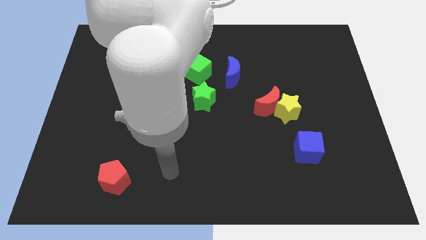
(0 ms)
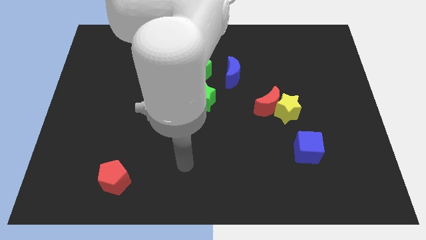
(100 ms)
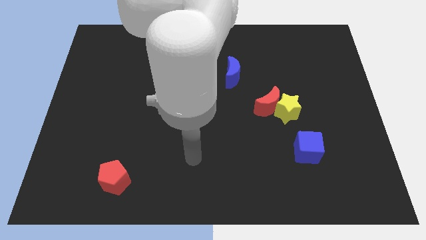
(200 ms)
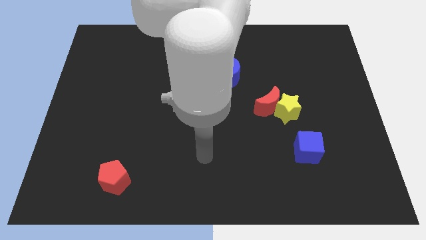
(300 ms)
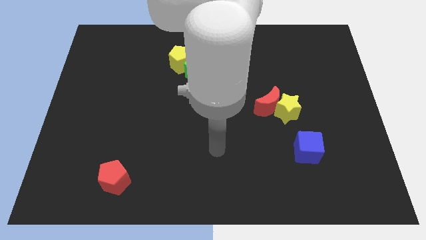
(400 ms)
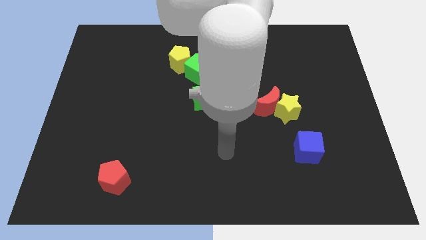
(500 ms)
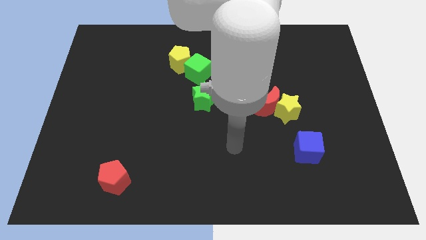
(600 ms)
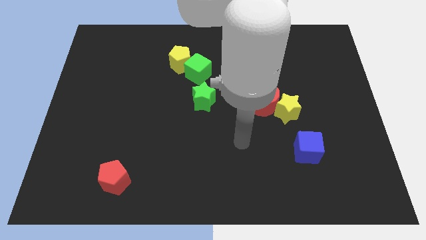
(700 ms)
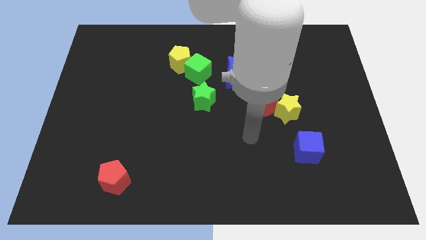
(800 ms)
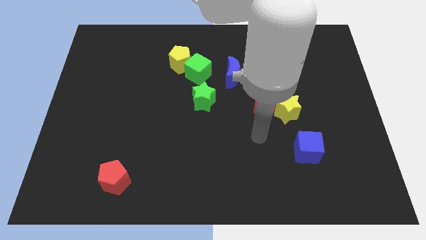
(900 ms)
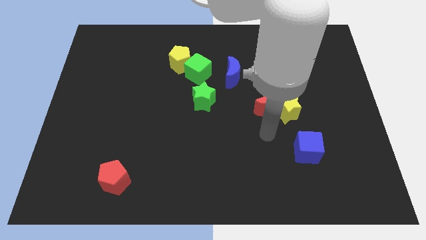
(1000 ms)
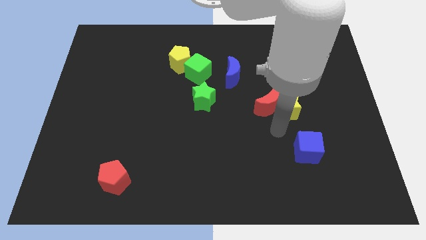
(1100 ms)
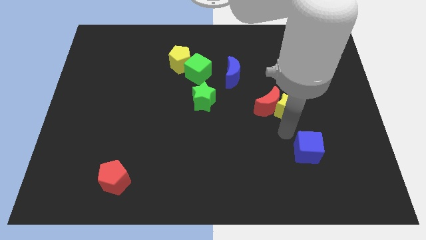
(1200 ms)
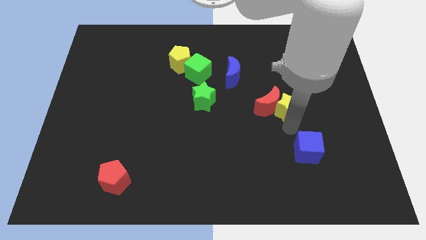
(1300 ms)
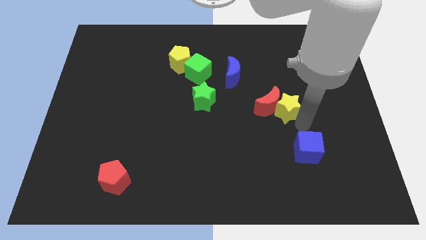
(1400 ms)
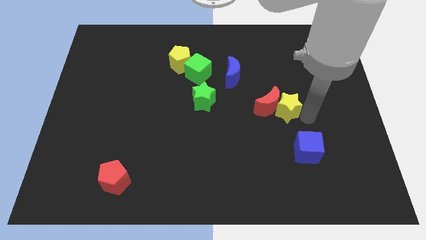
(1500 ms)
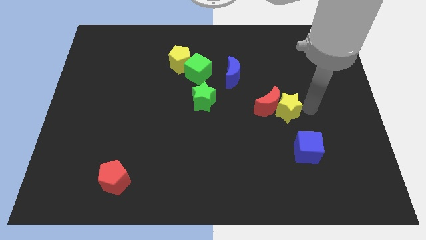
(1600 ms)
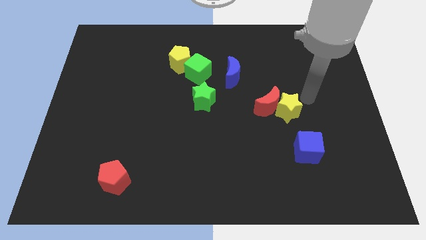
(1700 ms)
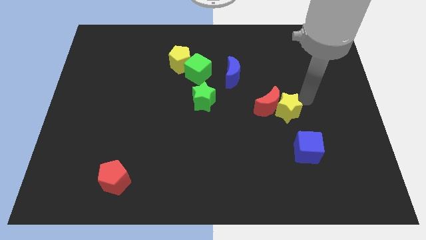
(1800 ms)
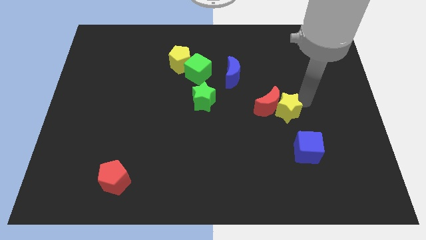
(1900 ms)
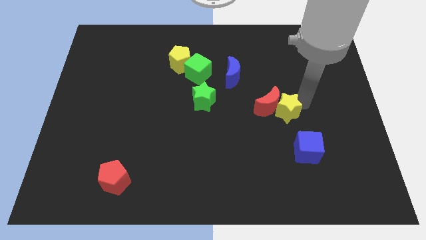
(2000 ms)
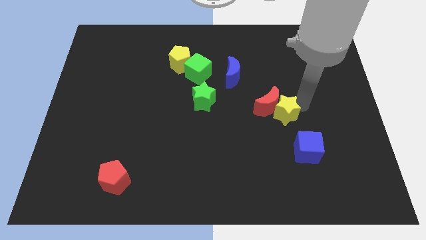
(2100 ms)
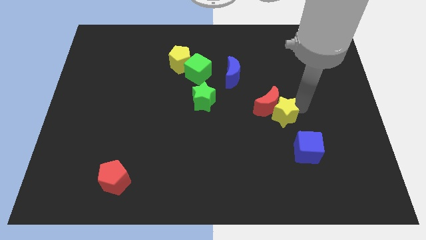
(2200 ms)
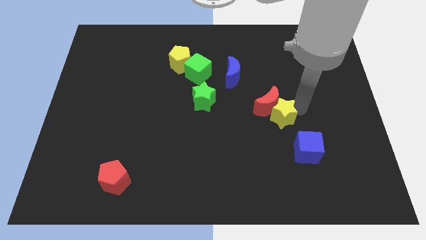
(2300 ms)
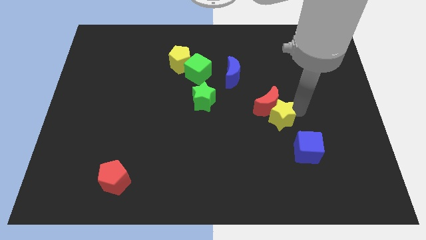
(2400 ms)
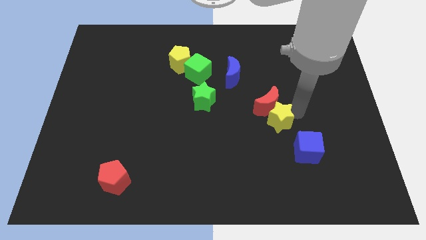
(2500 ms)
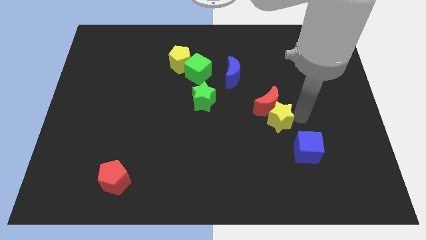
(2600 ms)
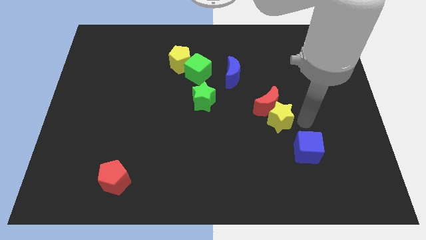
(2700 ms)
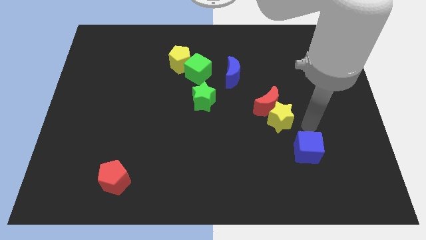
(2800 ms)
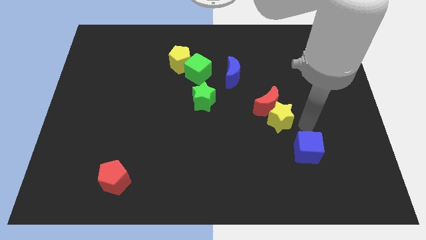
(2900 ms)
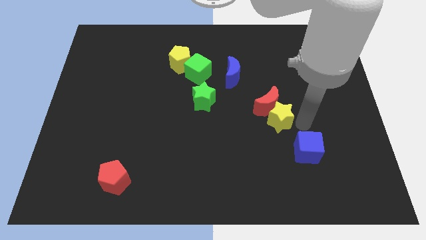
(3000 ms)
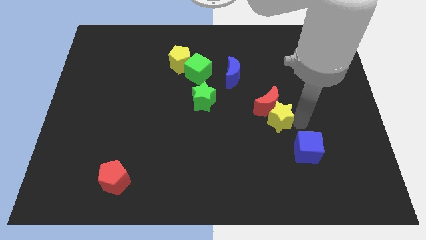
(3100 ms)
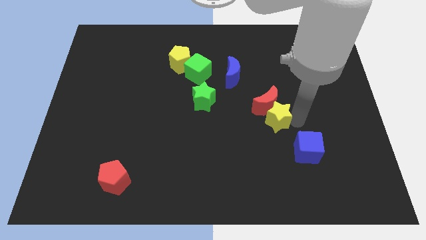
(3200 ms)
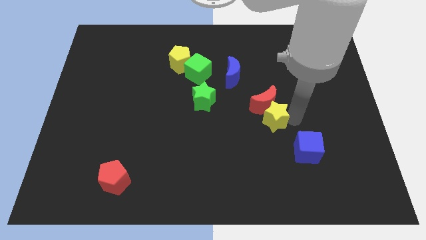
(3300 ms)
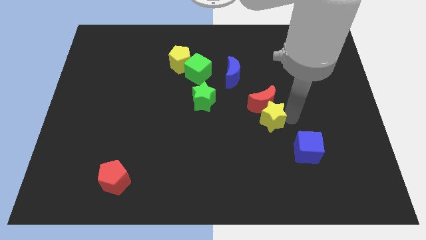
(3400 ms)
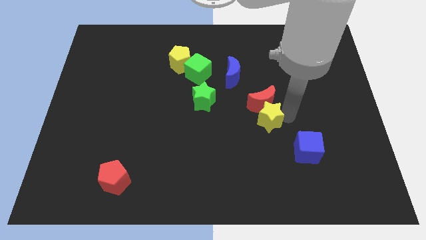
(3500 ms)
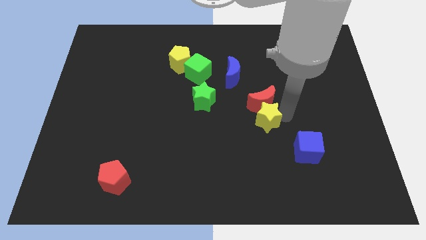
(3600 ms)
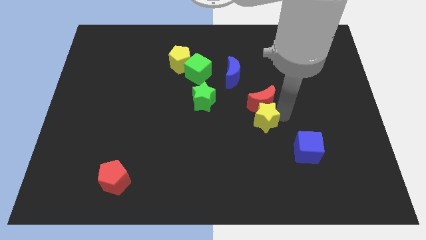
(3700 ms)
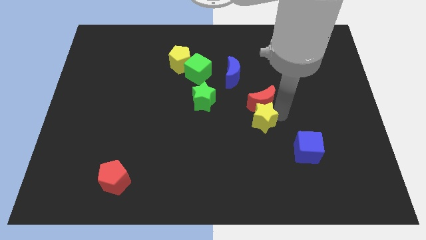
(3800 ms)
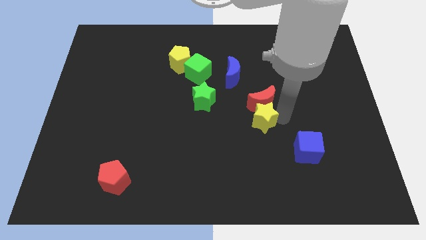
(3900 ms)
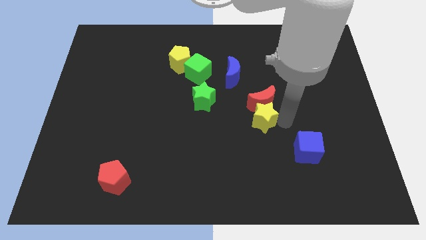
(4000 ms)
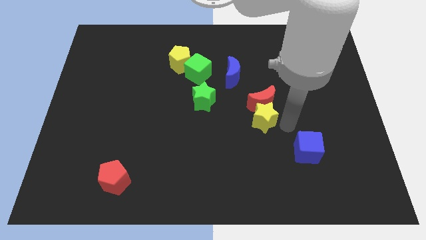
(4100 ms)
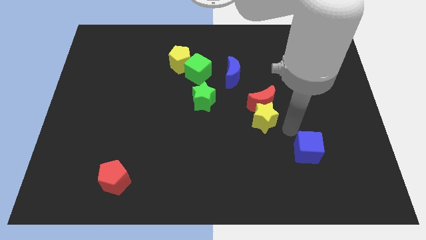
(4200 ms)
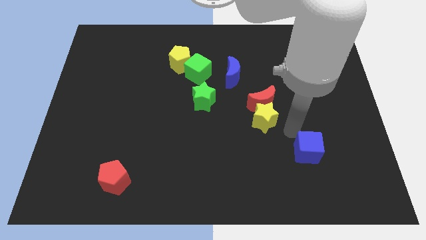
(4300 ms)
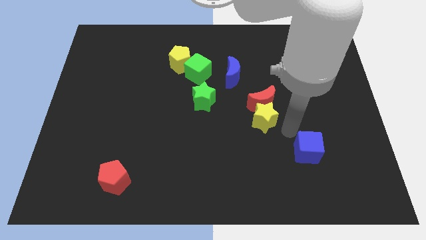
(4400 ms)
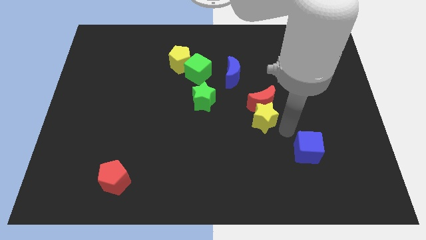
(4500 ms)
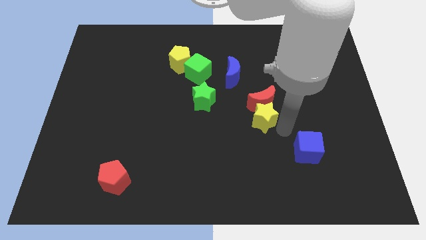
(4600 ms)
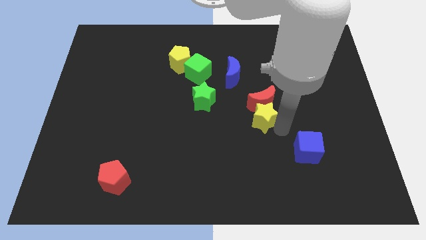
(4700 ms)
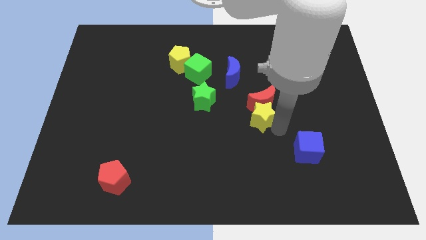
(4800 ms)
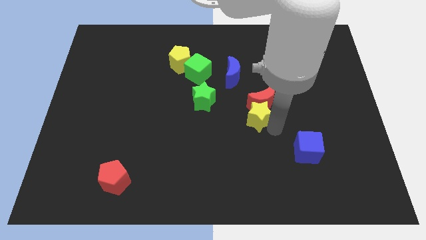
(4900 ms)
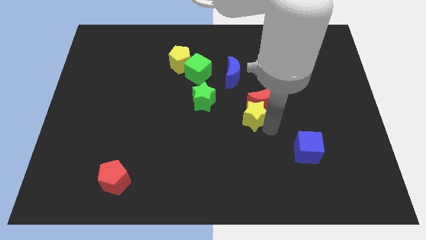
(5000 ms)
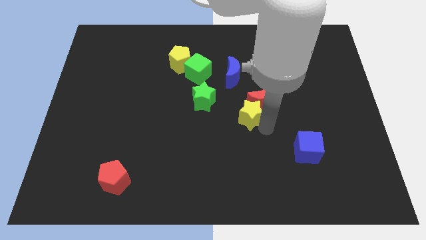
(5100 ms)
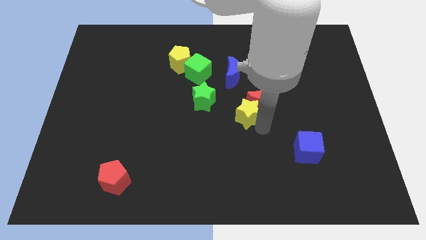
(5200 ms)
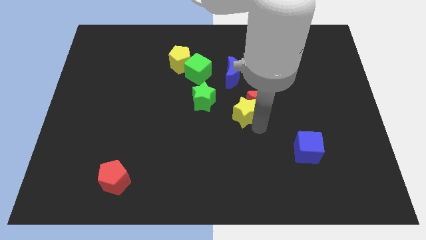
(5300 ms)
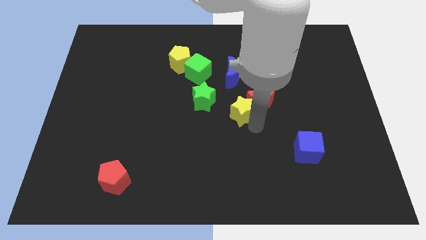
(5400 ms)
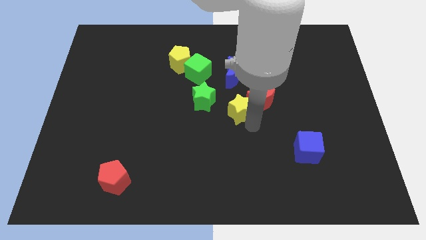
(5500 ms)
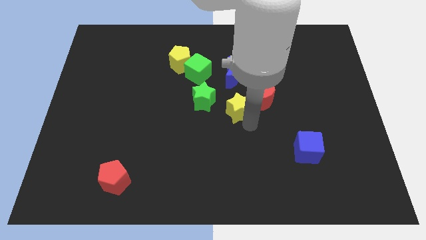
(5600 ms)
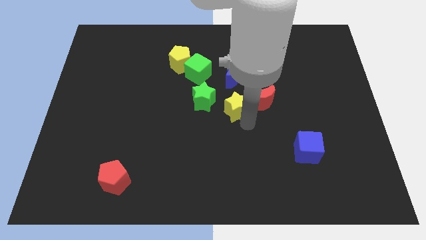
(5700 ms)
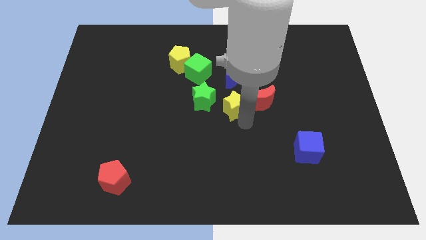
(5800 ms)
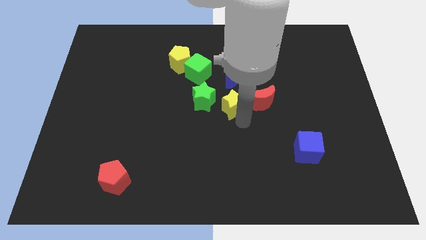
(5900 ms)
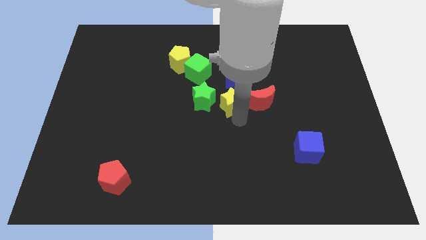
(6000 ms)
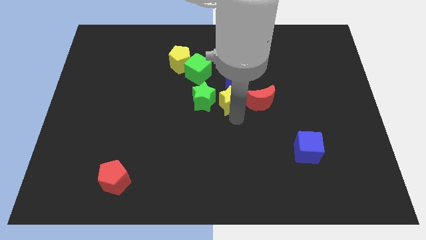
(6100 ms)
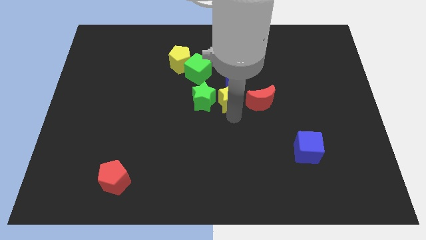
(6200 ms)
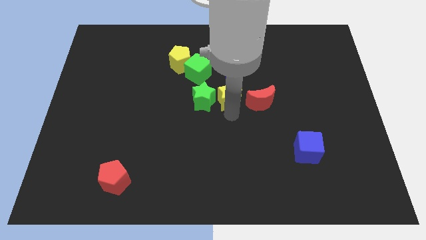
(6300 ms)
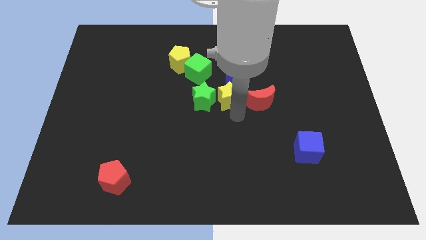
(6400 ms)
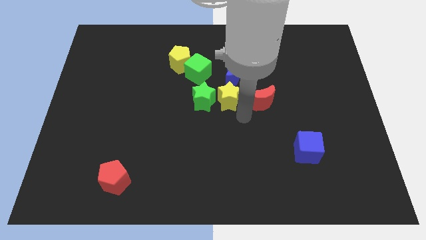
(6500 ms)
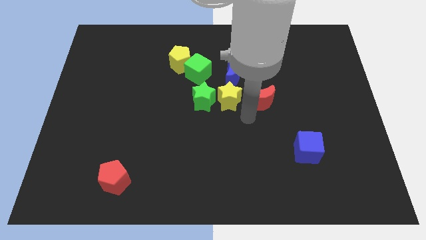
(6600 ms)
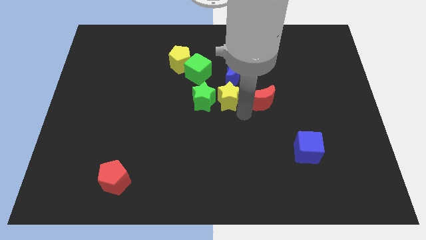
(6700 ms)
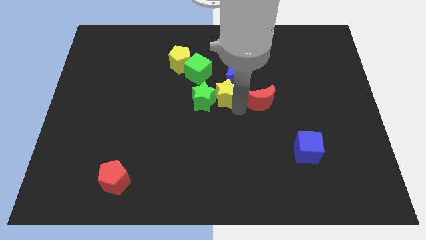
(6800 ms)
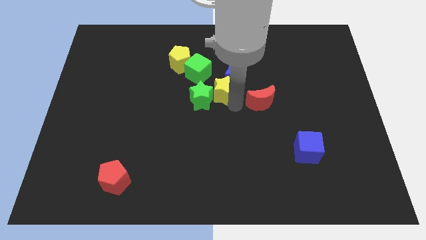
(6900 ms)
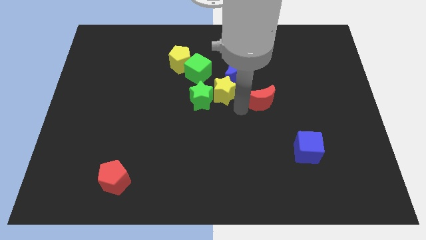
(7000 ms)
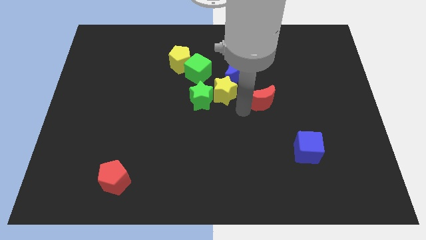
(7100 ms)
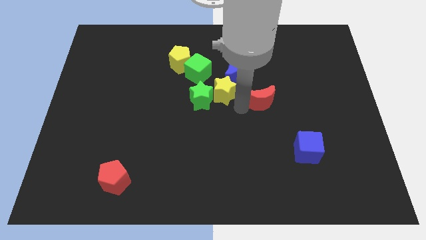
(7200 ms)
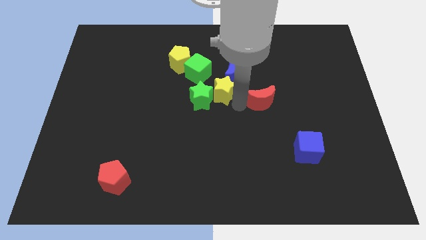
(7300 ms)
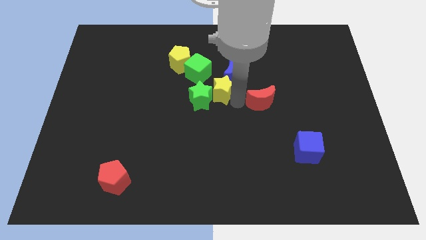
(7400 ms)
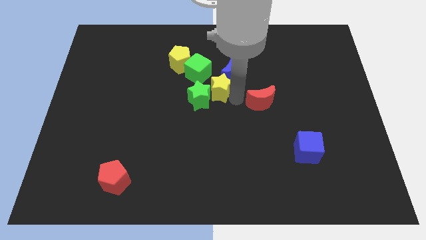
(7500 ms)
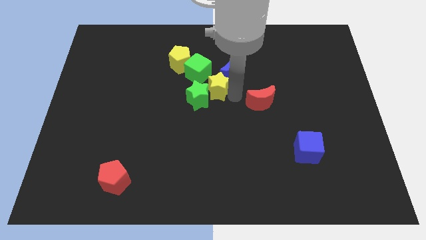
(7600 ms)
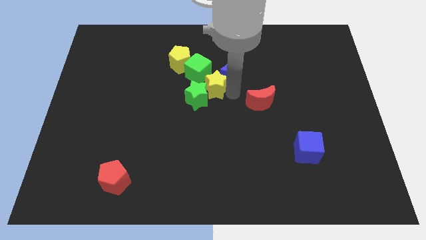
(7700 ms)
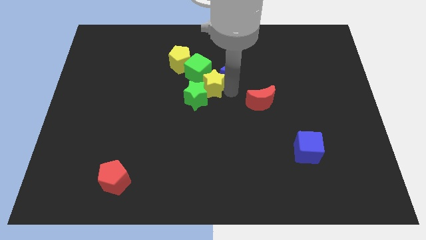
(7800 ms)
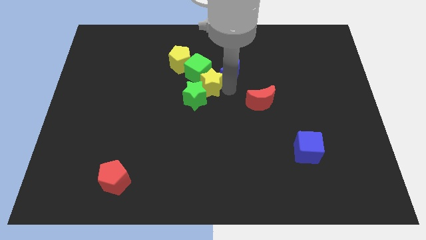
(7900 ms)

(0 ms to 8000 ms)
move the yellow star to the green cube
